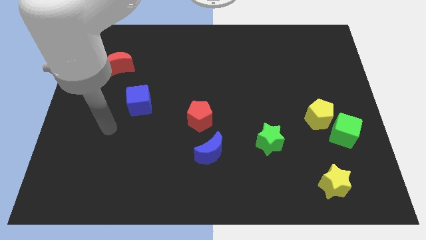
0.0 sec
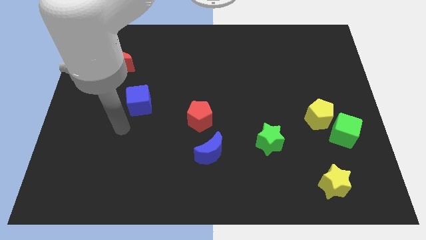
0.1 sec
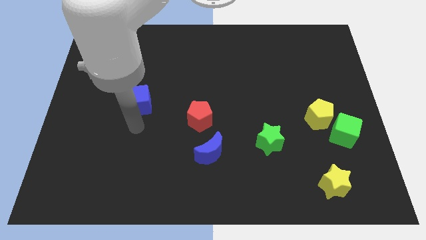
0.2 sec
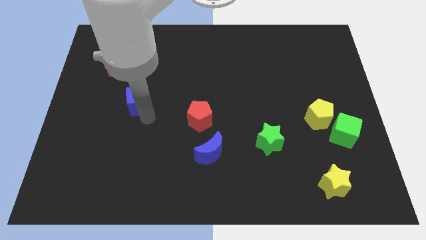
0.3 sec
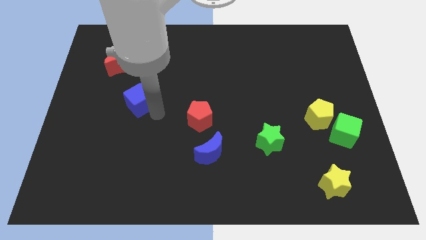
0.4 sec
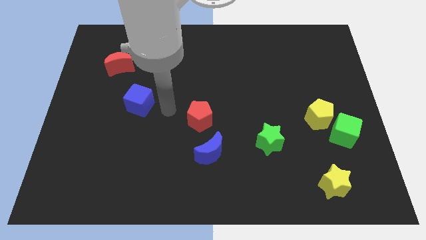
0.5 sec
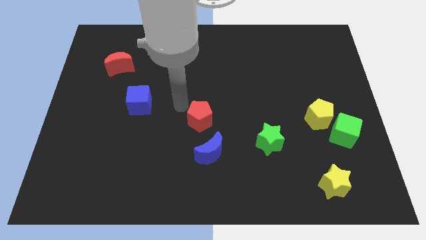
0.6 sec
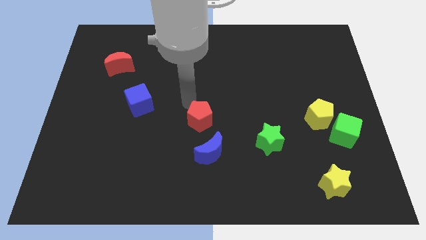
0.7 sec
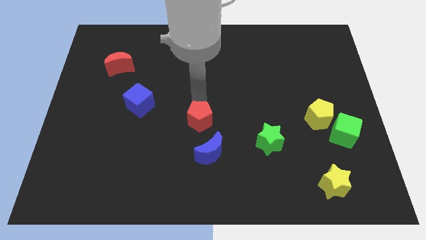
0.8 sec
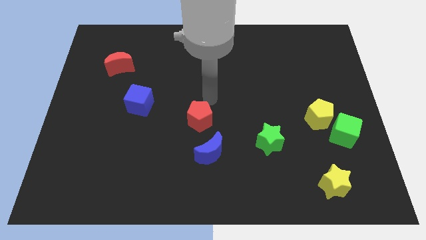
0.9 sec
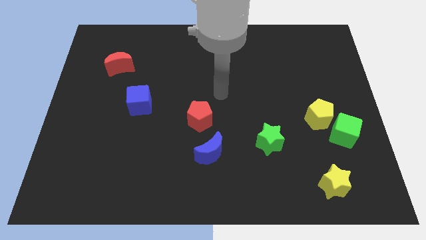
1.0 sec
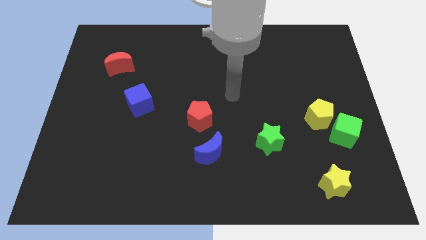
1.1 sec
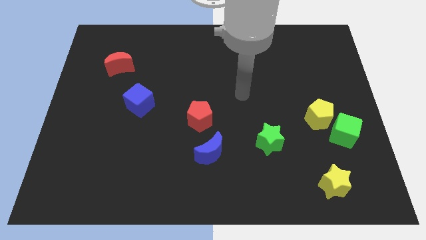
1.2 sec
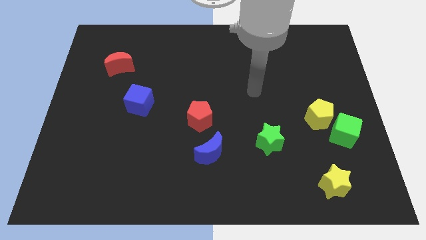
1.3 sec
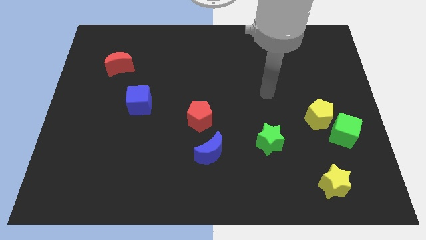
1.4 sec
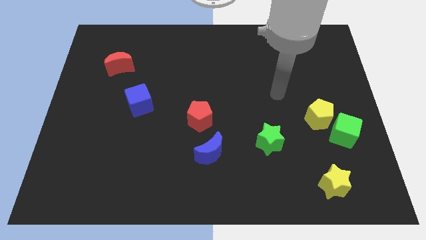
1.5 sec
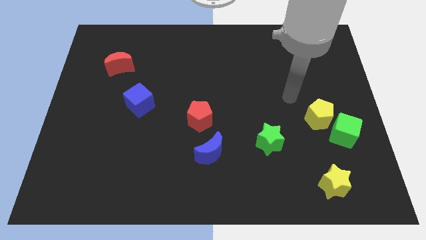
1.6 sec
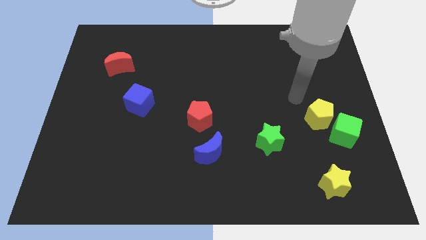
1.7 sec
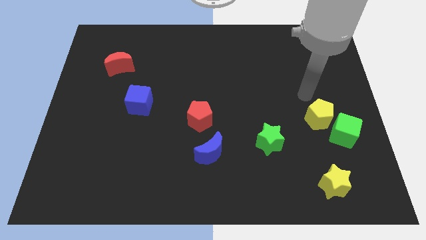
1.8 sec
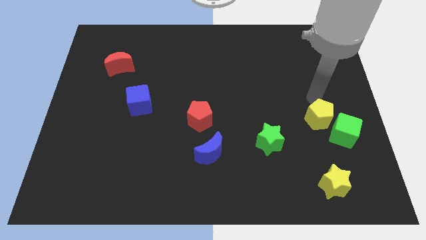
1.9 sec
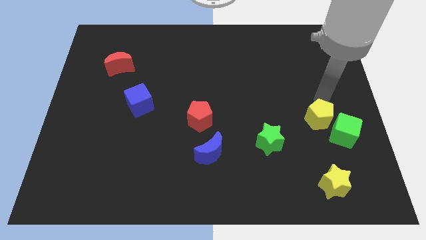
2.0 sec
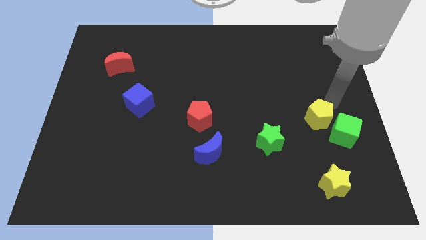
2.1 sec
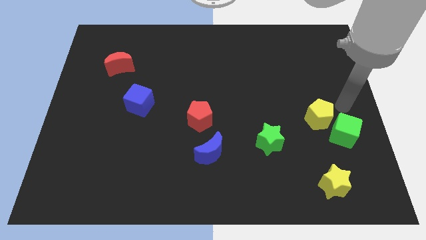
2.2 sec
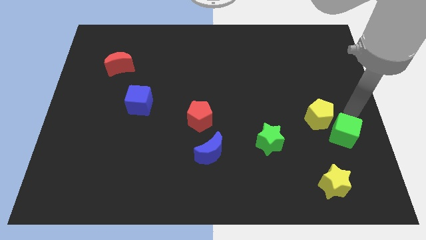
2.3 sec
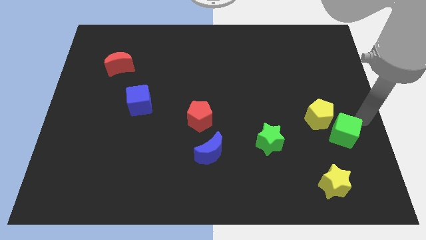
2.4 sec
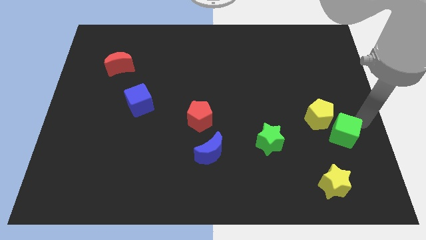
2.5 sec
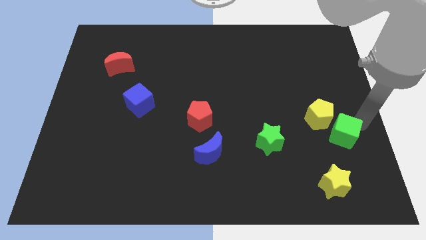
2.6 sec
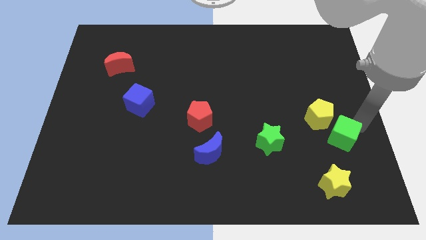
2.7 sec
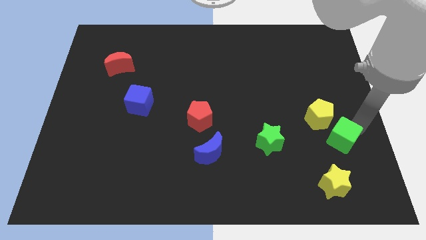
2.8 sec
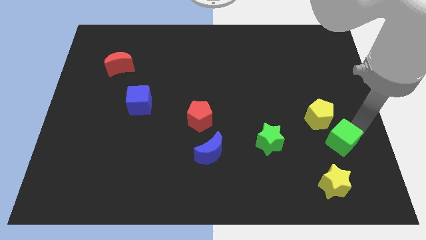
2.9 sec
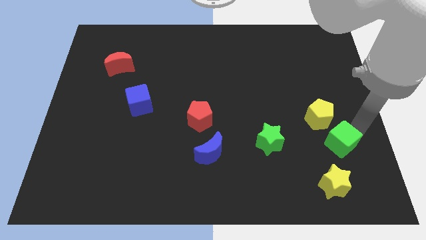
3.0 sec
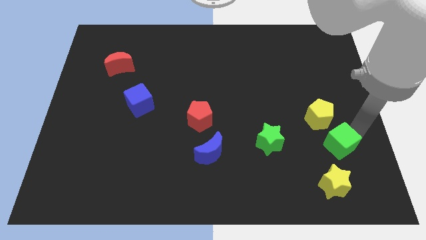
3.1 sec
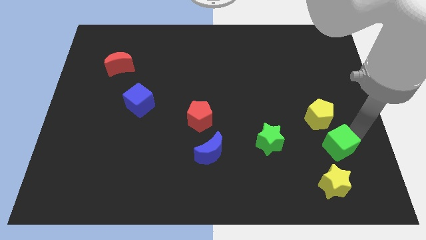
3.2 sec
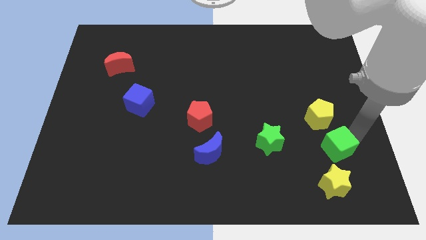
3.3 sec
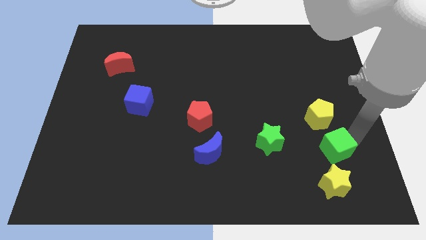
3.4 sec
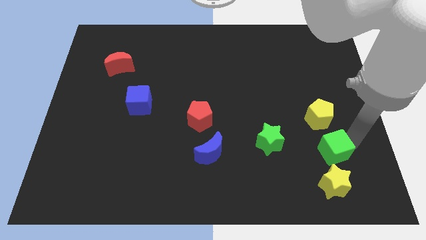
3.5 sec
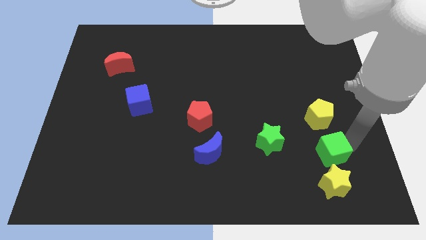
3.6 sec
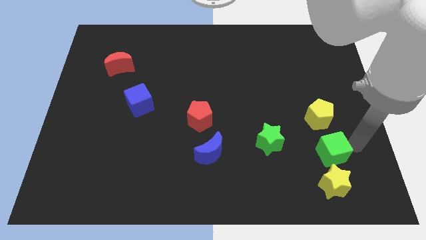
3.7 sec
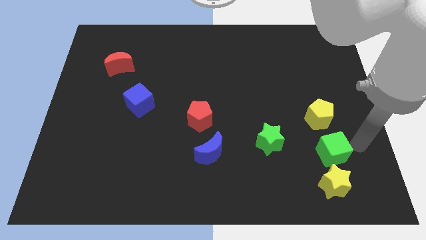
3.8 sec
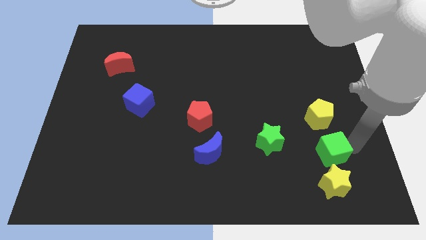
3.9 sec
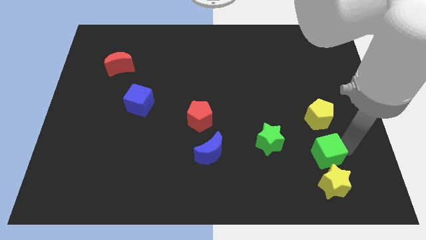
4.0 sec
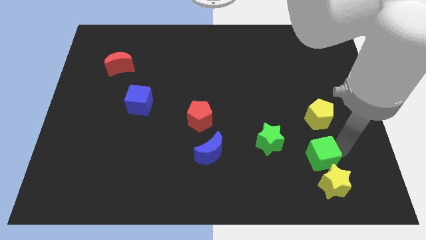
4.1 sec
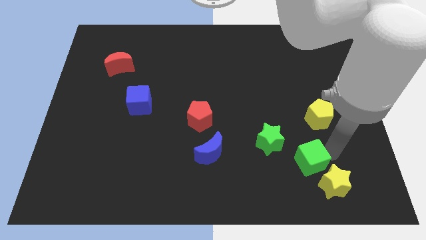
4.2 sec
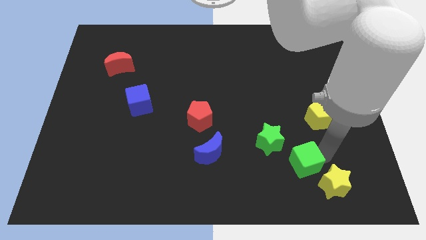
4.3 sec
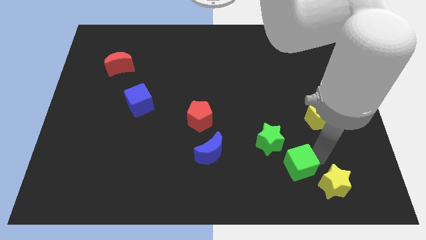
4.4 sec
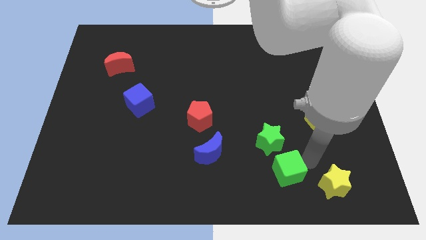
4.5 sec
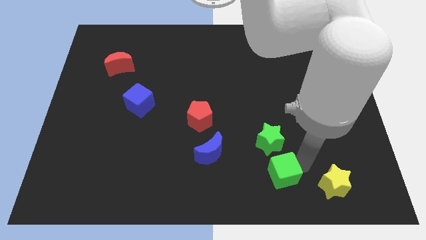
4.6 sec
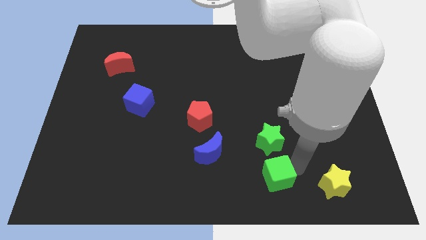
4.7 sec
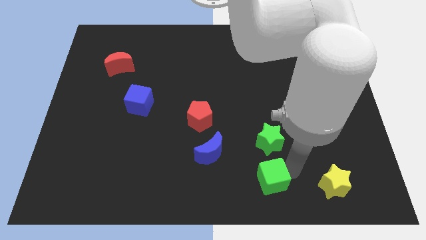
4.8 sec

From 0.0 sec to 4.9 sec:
put the green cube to the bottom side

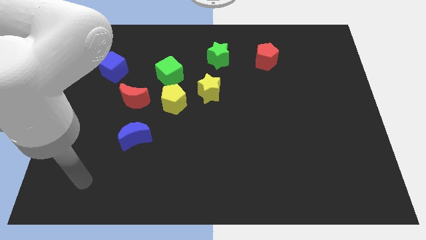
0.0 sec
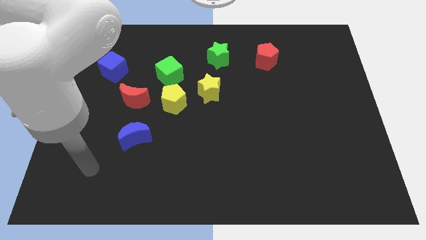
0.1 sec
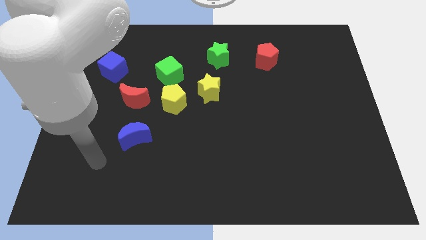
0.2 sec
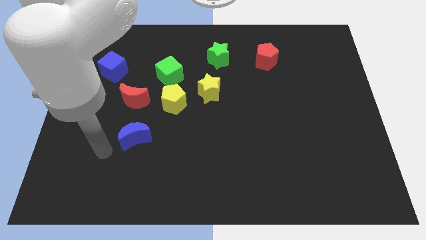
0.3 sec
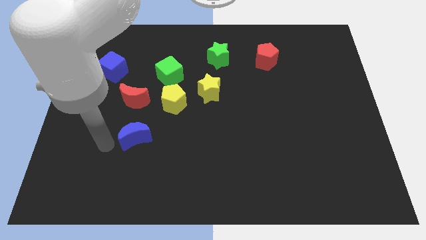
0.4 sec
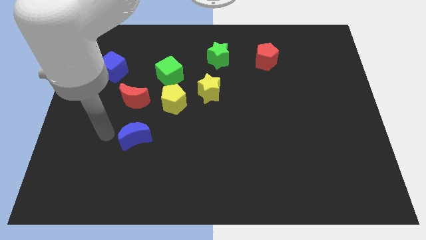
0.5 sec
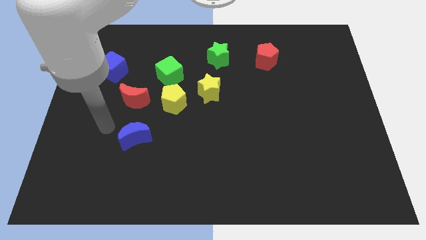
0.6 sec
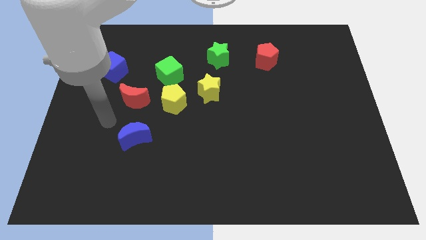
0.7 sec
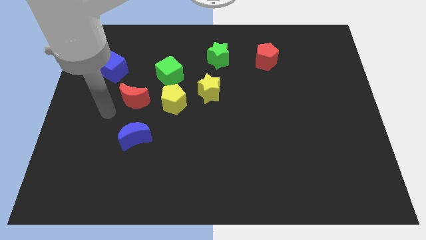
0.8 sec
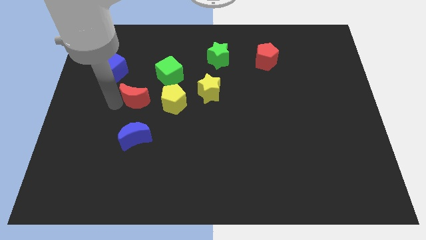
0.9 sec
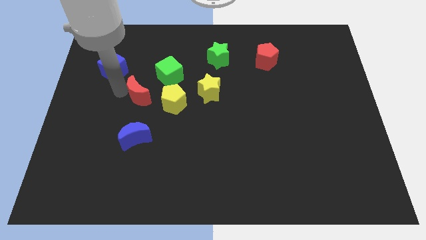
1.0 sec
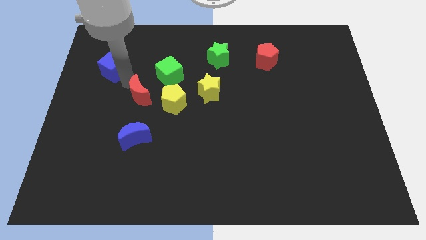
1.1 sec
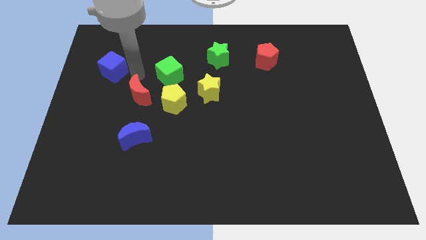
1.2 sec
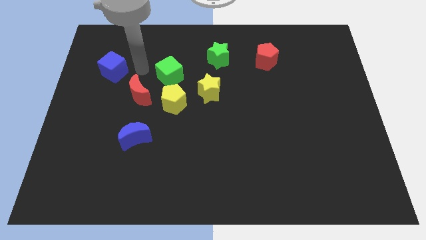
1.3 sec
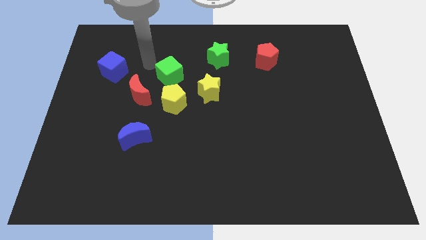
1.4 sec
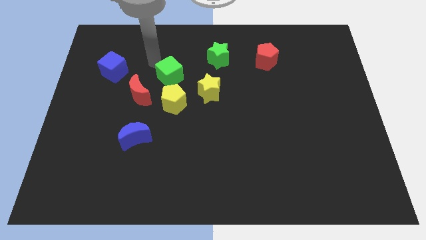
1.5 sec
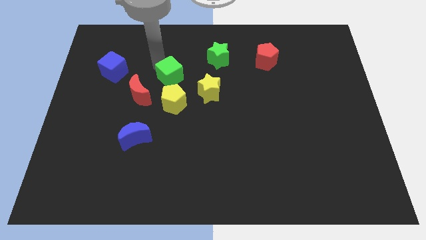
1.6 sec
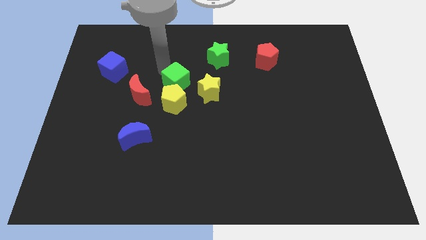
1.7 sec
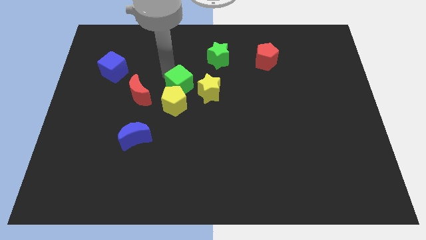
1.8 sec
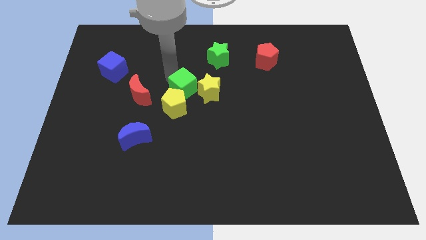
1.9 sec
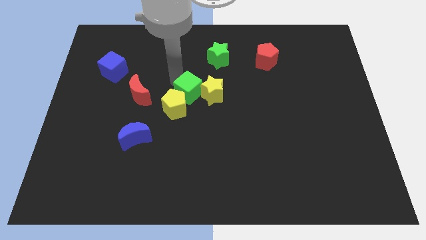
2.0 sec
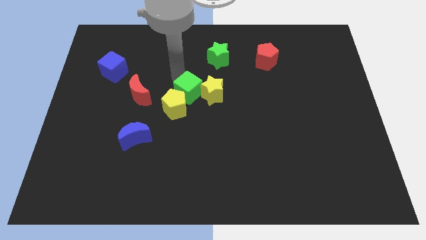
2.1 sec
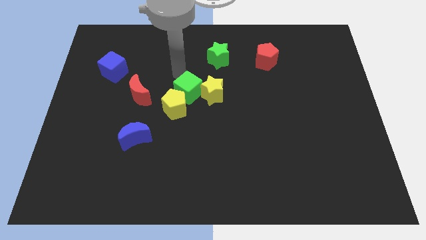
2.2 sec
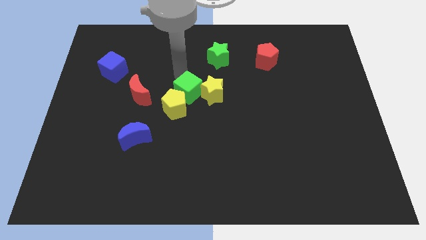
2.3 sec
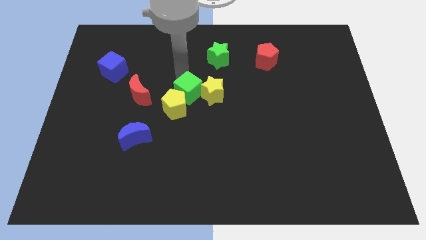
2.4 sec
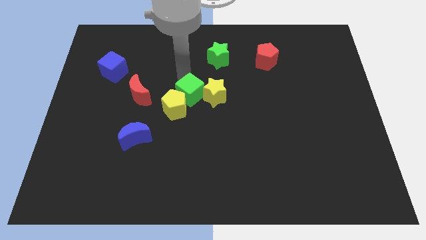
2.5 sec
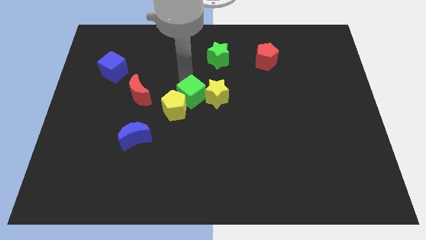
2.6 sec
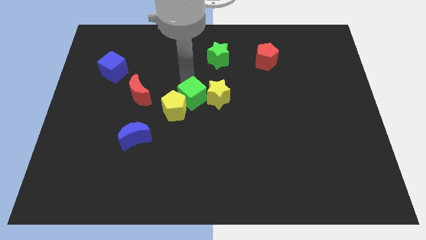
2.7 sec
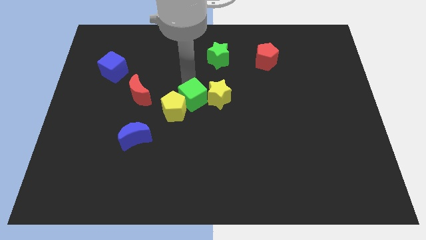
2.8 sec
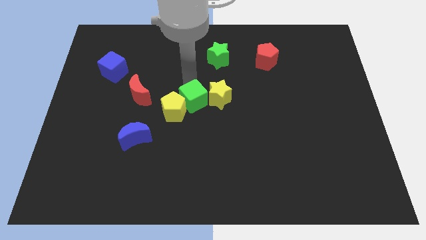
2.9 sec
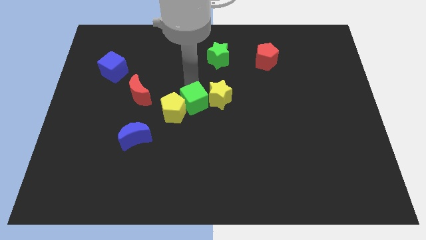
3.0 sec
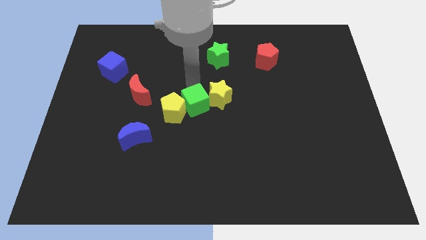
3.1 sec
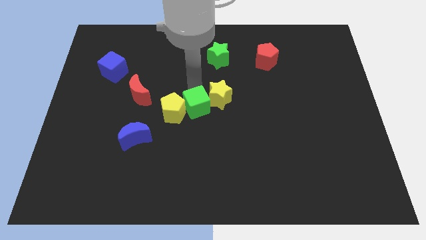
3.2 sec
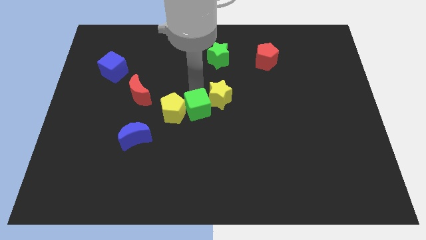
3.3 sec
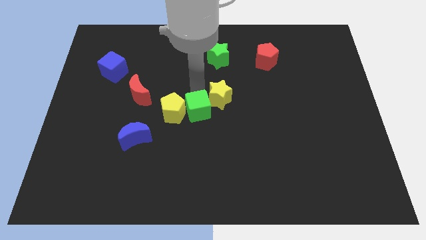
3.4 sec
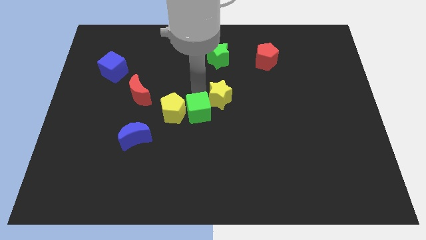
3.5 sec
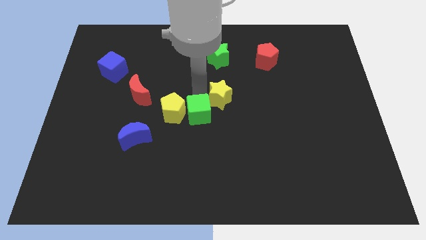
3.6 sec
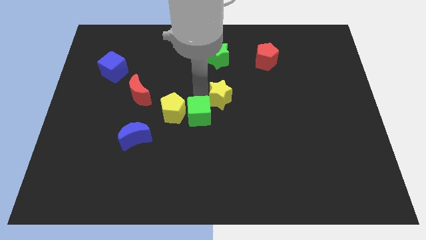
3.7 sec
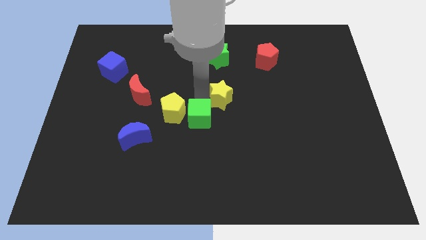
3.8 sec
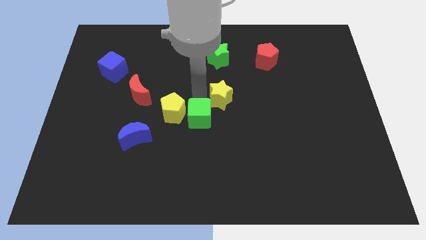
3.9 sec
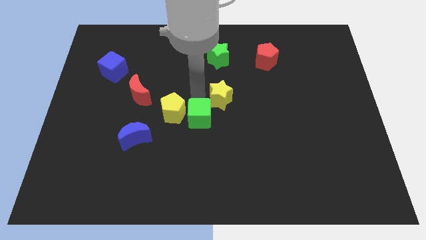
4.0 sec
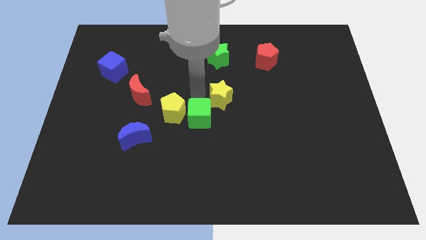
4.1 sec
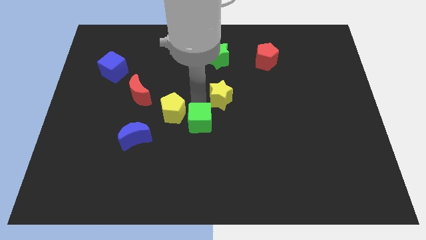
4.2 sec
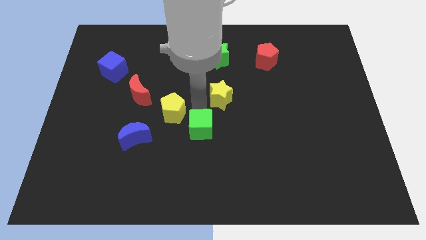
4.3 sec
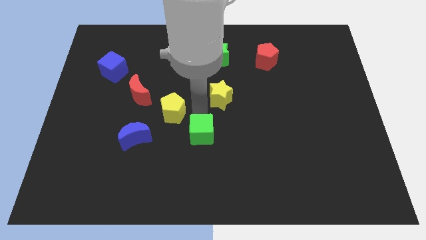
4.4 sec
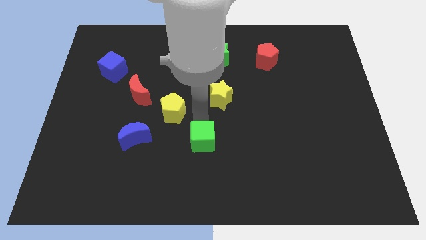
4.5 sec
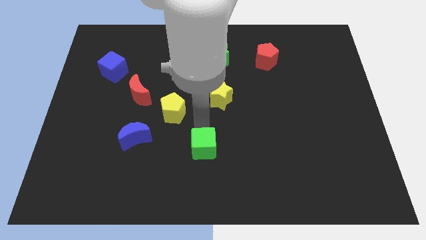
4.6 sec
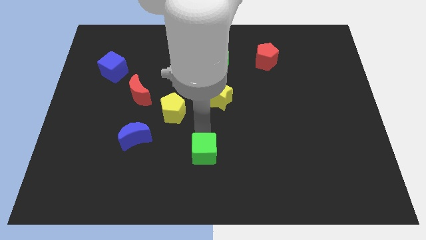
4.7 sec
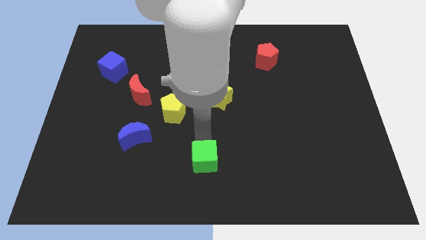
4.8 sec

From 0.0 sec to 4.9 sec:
put the green cube to the bottom
